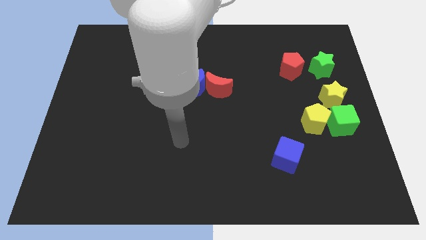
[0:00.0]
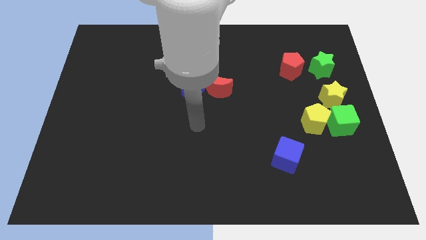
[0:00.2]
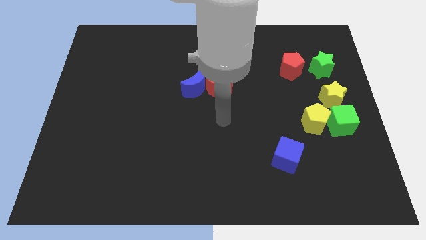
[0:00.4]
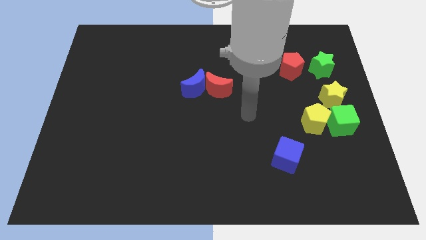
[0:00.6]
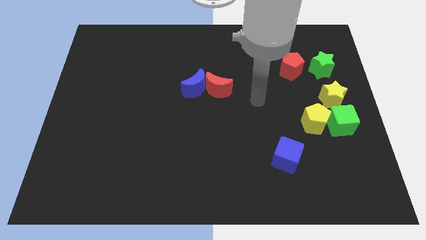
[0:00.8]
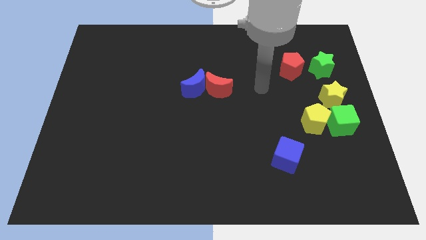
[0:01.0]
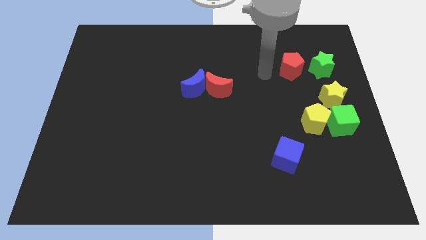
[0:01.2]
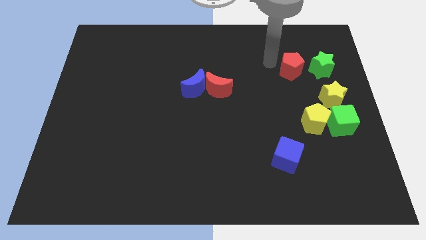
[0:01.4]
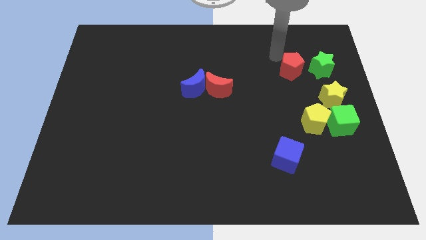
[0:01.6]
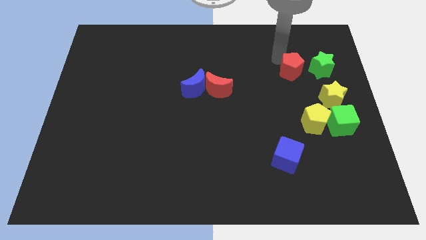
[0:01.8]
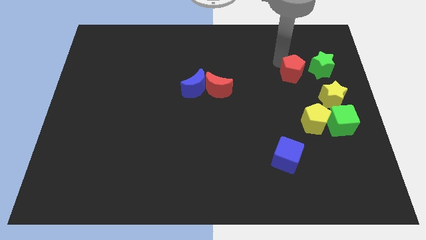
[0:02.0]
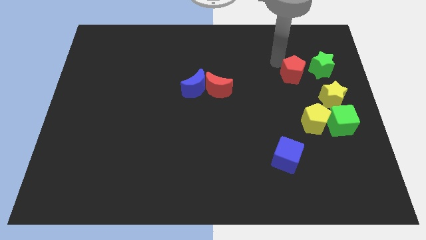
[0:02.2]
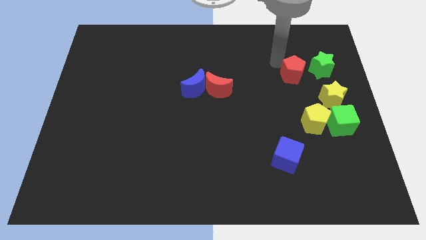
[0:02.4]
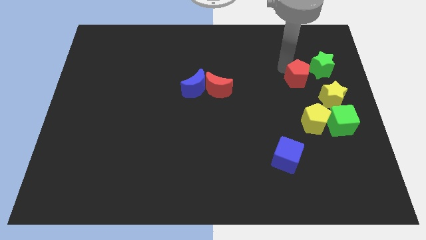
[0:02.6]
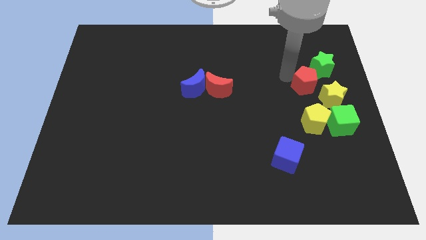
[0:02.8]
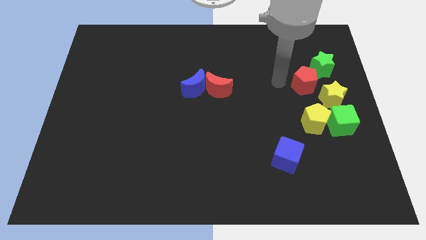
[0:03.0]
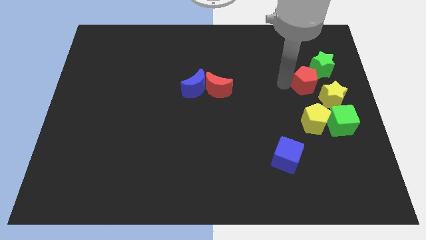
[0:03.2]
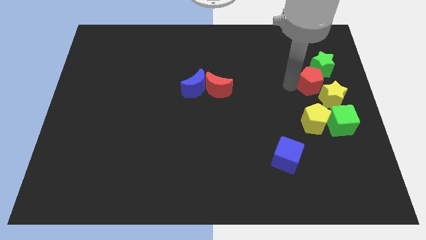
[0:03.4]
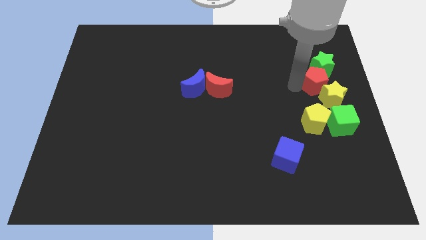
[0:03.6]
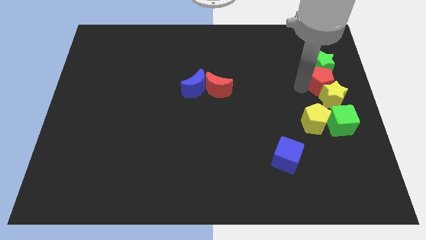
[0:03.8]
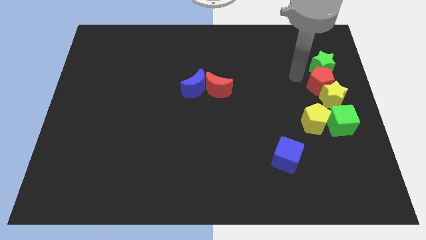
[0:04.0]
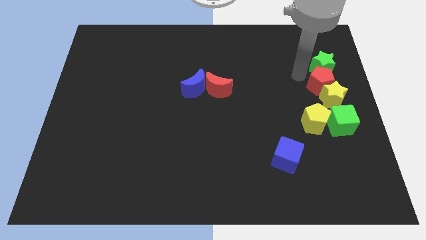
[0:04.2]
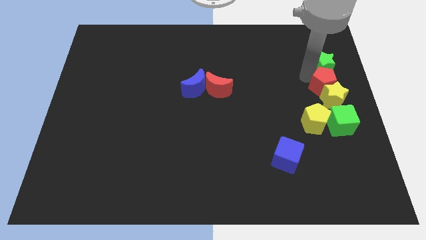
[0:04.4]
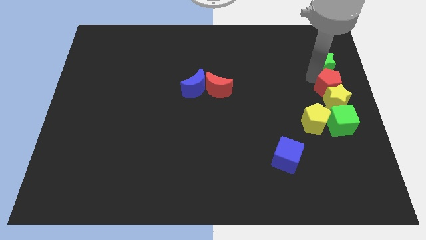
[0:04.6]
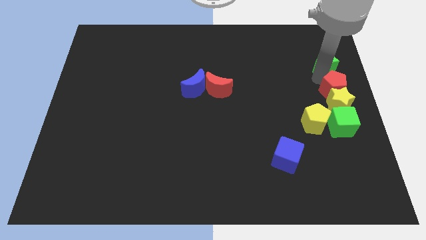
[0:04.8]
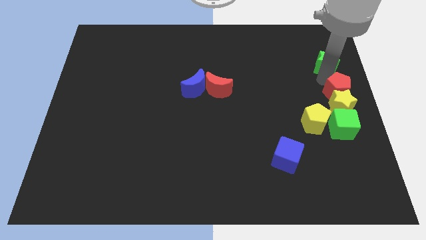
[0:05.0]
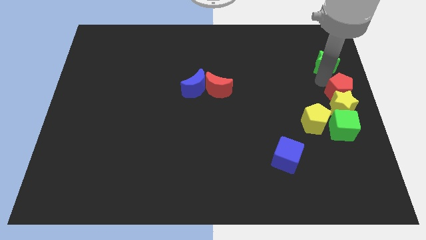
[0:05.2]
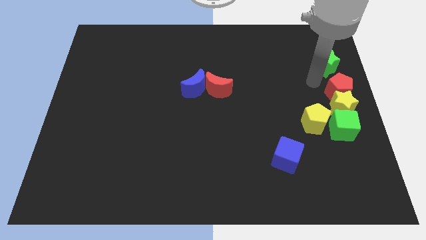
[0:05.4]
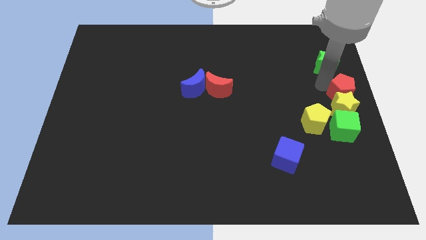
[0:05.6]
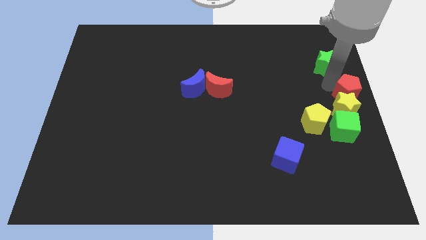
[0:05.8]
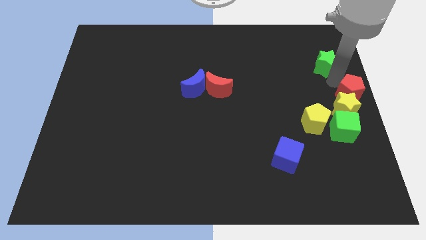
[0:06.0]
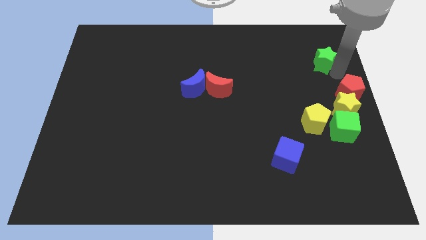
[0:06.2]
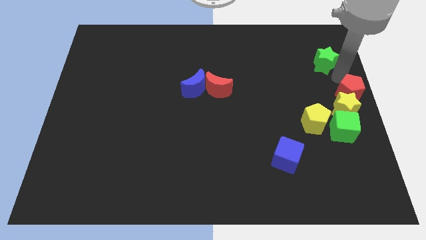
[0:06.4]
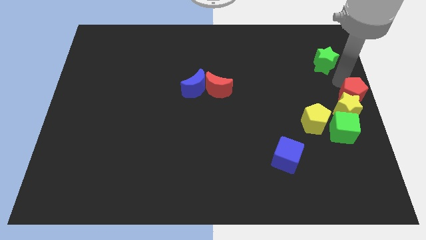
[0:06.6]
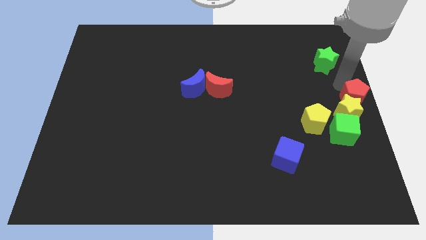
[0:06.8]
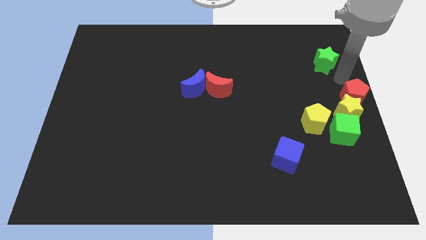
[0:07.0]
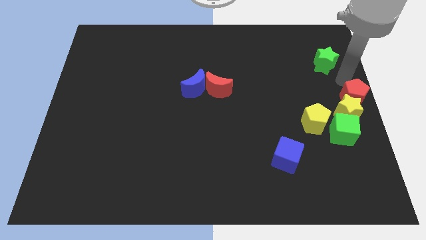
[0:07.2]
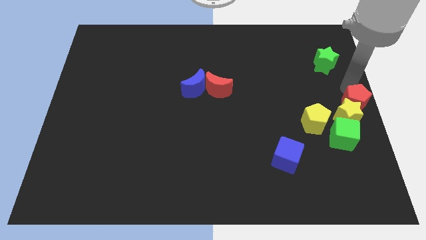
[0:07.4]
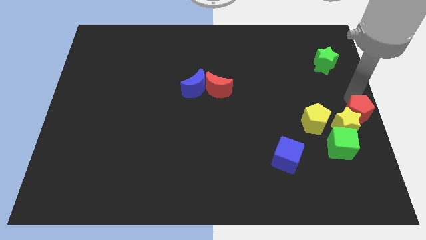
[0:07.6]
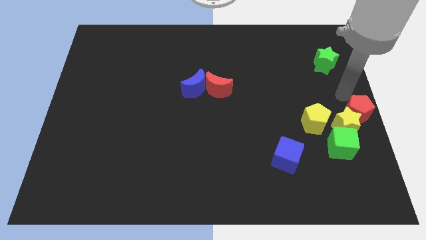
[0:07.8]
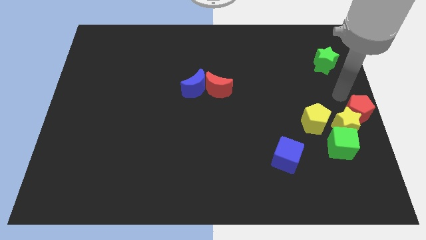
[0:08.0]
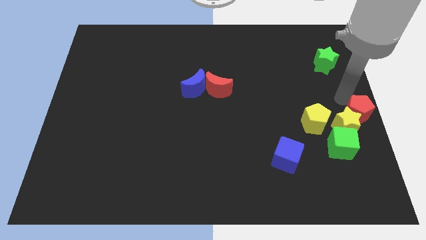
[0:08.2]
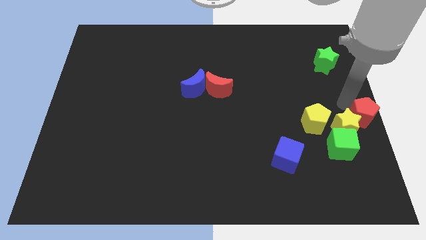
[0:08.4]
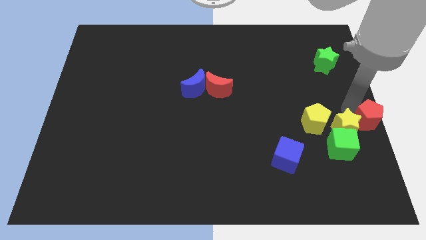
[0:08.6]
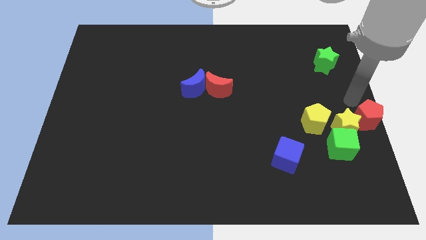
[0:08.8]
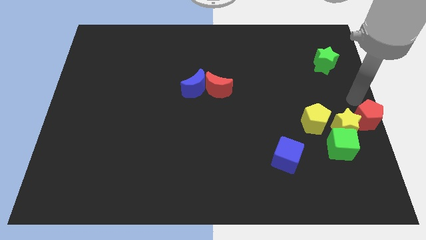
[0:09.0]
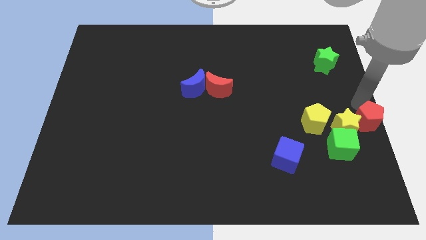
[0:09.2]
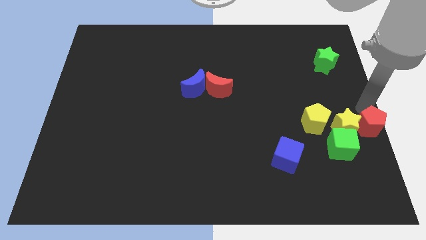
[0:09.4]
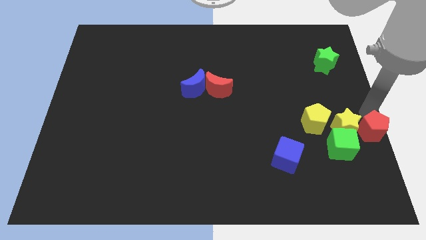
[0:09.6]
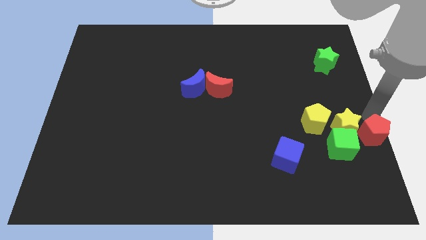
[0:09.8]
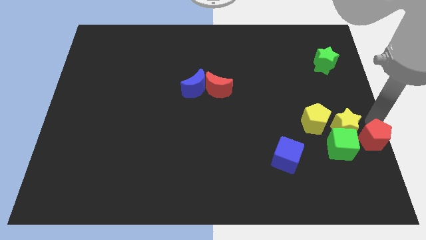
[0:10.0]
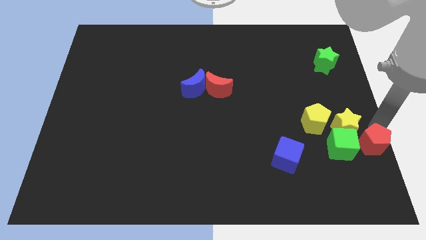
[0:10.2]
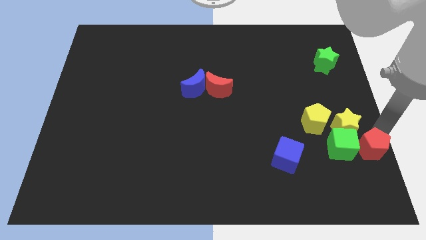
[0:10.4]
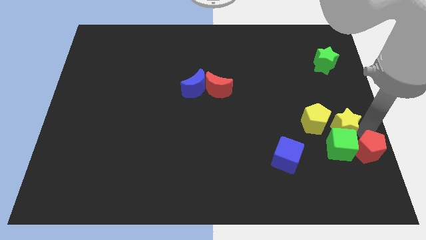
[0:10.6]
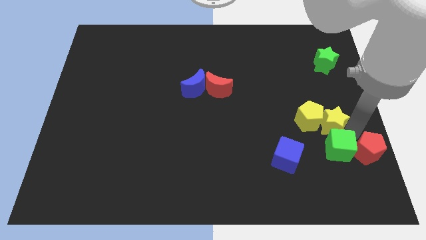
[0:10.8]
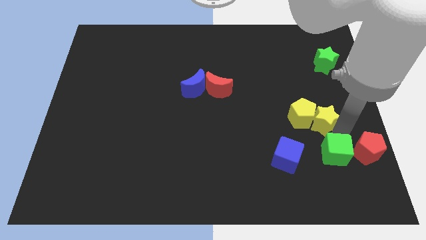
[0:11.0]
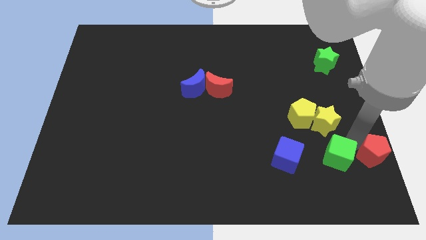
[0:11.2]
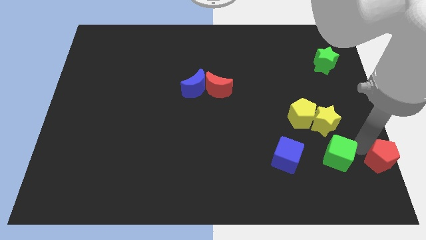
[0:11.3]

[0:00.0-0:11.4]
move the red pentagon to the bottom right of the board

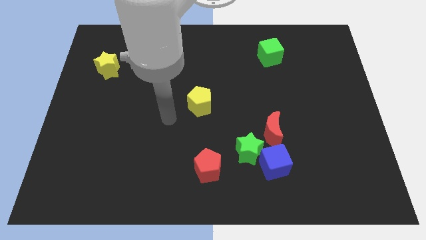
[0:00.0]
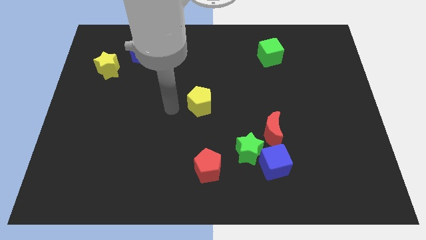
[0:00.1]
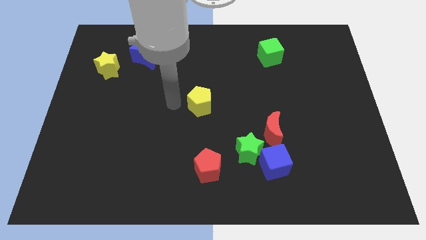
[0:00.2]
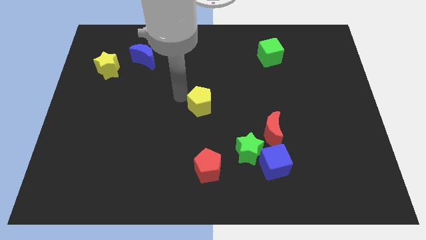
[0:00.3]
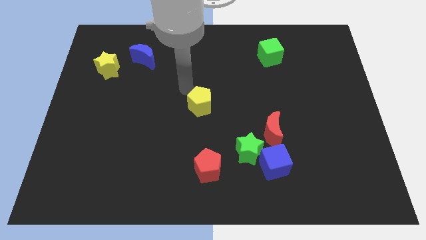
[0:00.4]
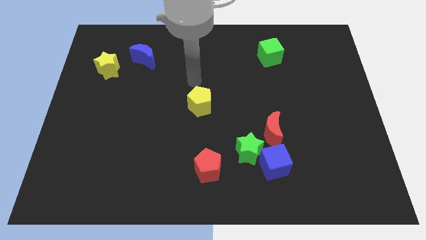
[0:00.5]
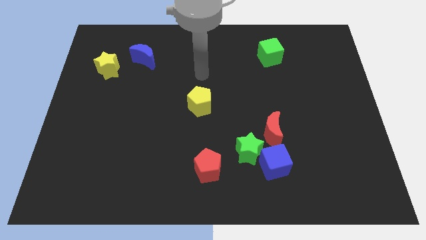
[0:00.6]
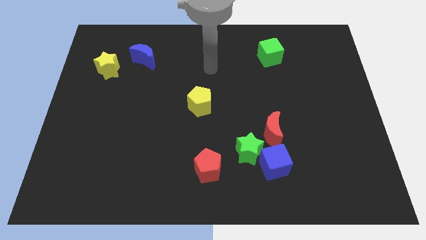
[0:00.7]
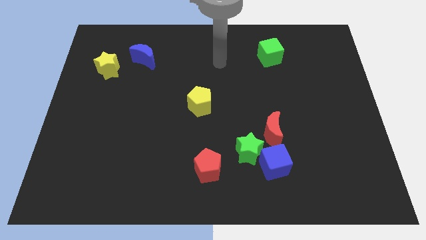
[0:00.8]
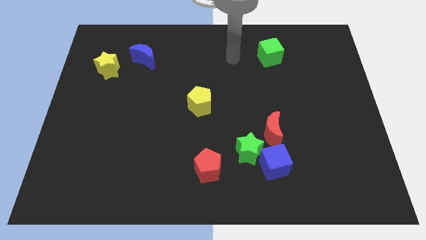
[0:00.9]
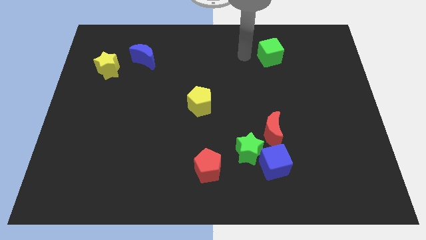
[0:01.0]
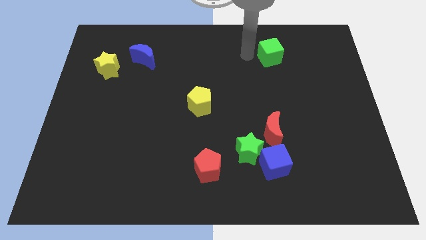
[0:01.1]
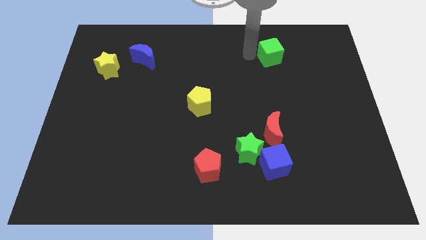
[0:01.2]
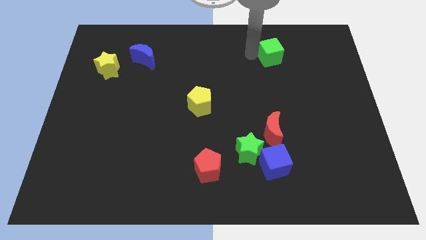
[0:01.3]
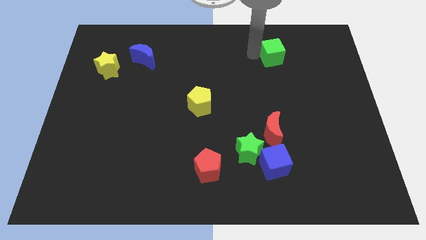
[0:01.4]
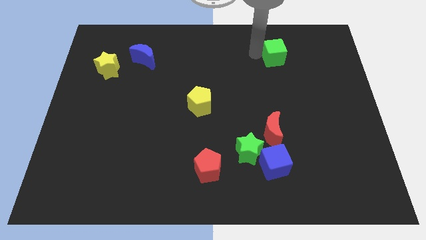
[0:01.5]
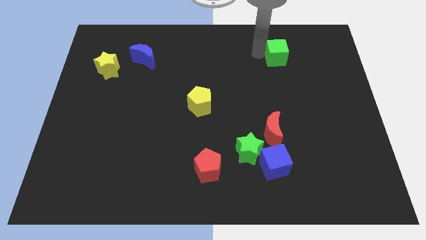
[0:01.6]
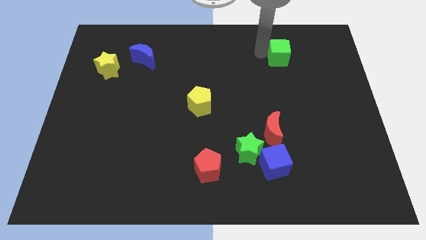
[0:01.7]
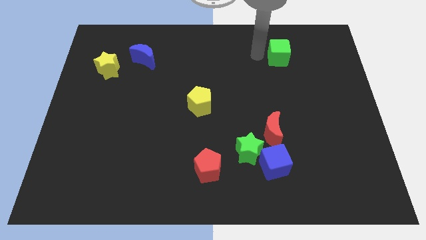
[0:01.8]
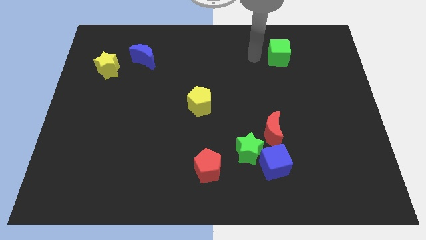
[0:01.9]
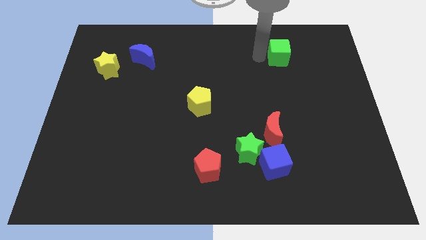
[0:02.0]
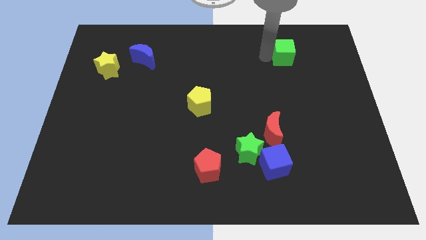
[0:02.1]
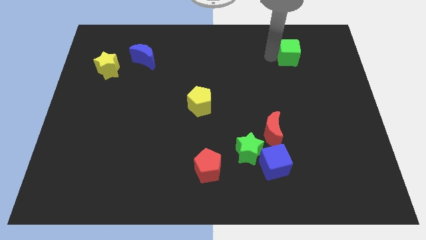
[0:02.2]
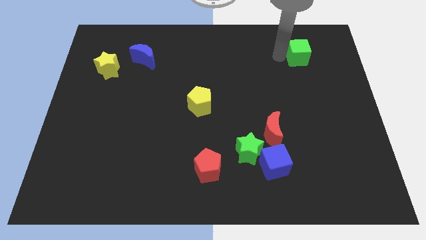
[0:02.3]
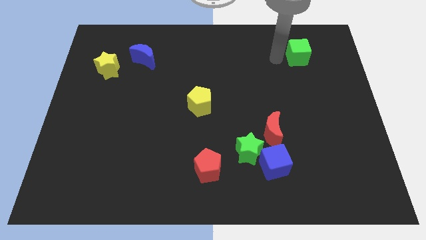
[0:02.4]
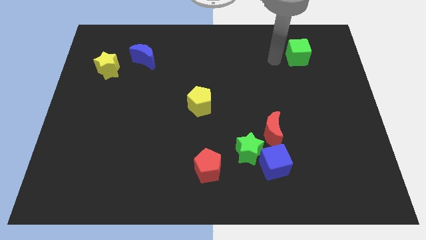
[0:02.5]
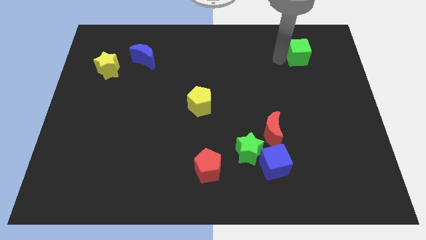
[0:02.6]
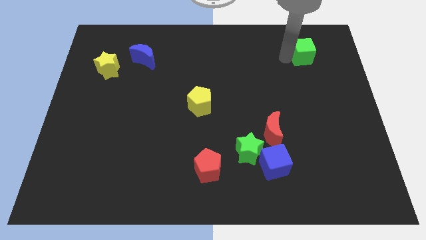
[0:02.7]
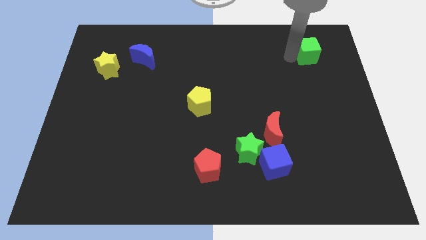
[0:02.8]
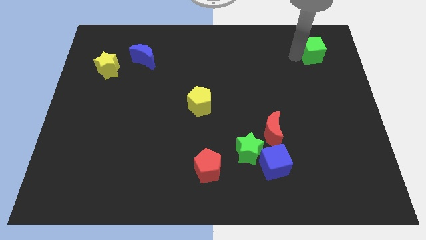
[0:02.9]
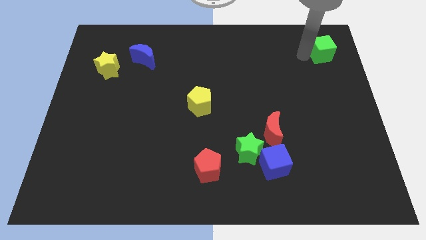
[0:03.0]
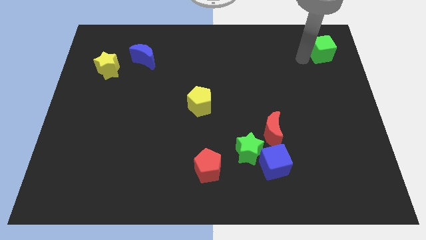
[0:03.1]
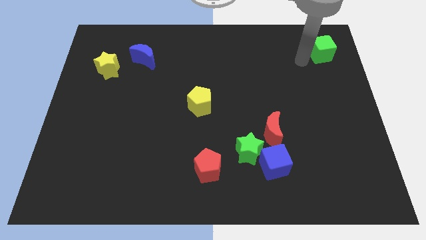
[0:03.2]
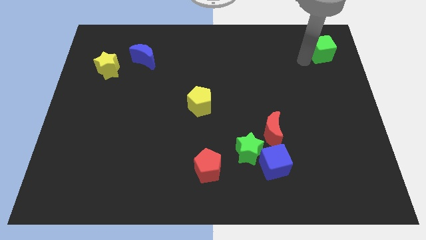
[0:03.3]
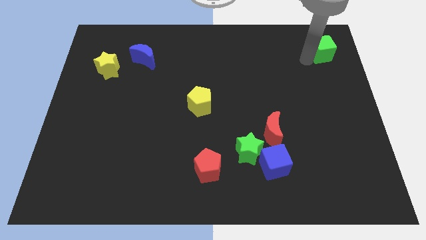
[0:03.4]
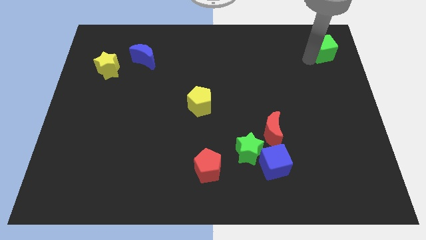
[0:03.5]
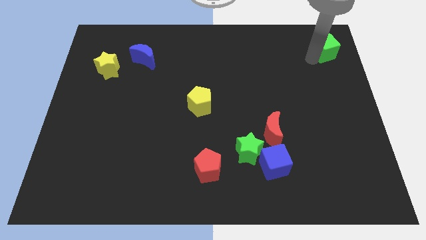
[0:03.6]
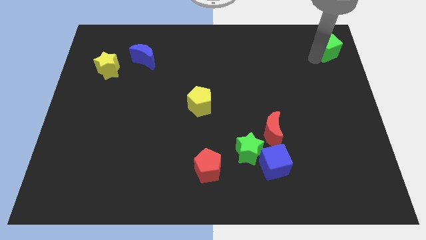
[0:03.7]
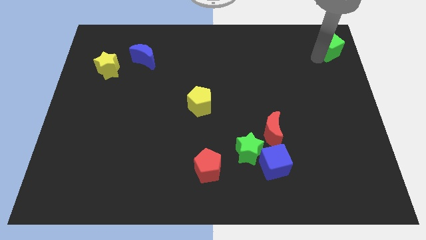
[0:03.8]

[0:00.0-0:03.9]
move the green cube to the upper right corner
